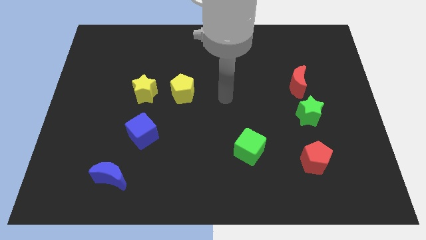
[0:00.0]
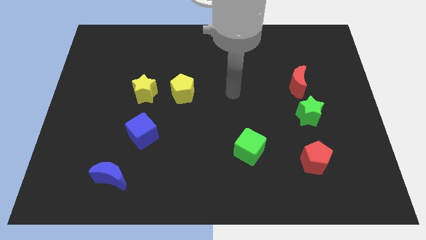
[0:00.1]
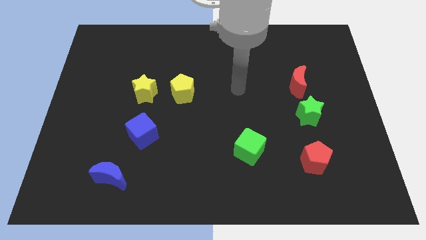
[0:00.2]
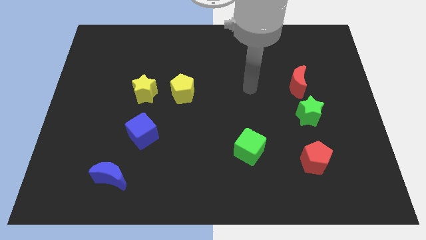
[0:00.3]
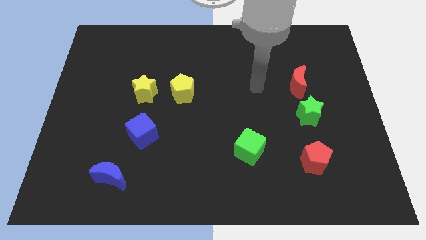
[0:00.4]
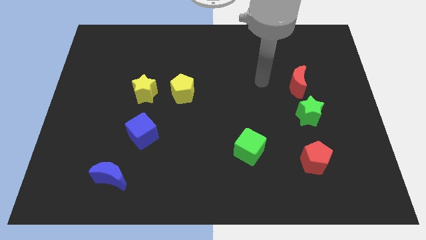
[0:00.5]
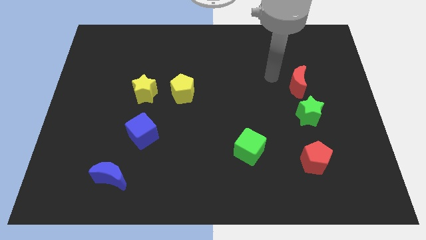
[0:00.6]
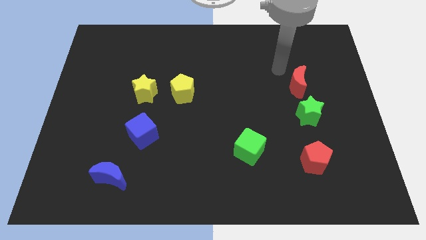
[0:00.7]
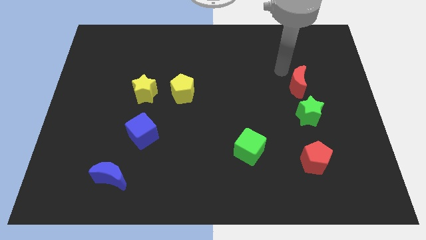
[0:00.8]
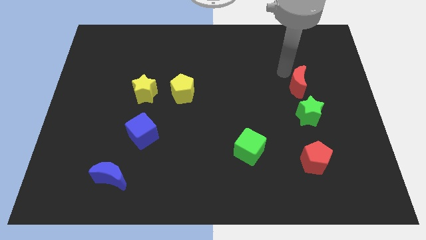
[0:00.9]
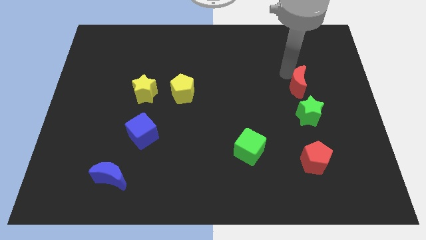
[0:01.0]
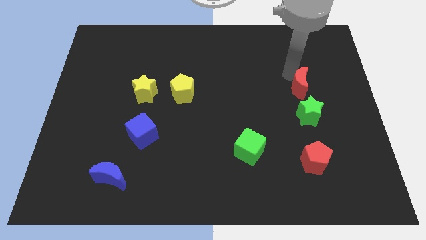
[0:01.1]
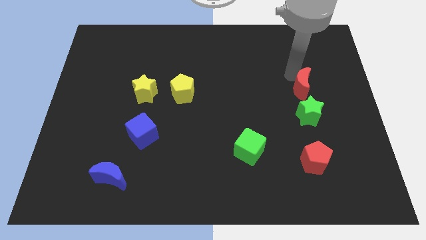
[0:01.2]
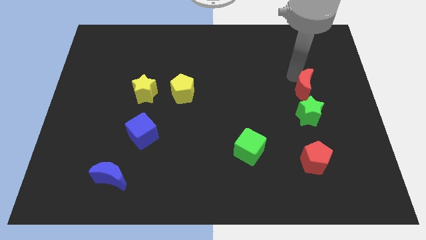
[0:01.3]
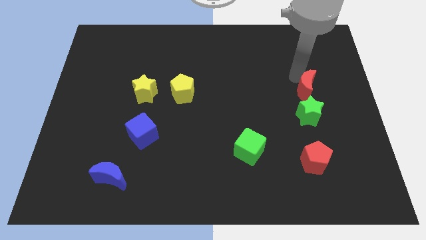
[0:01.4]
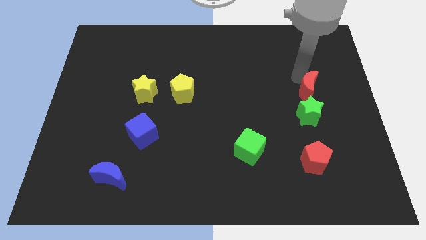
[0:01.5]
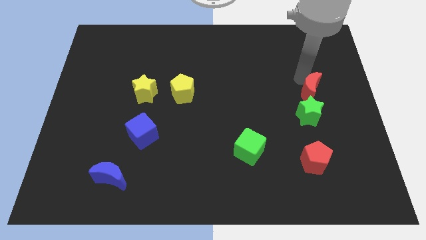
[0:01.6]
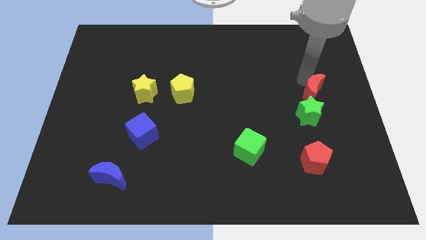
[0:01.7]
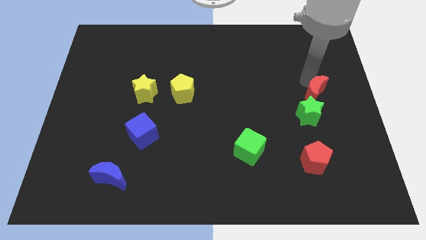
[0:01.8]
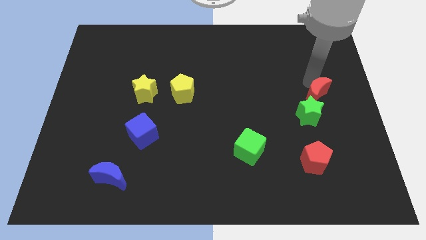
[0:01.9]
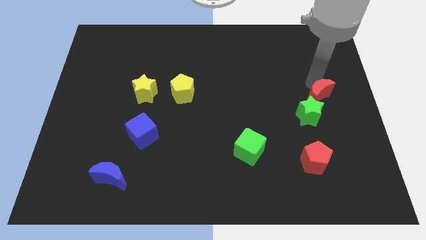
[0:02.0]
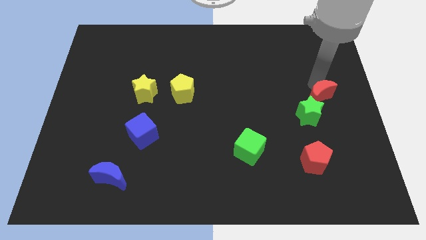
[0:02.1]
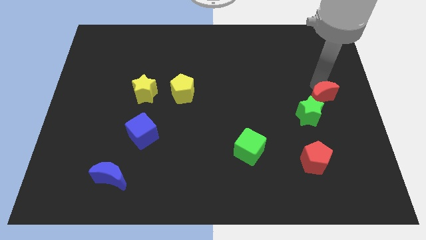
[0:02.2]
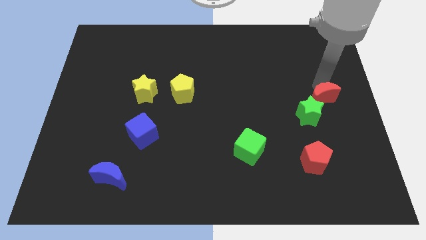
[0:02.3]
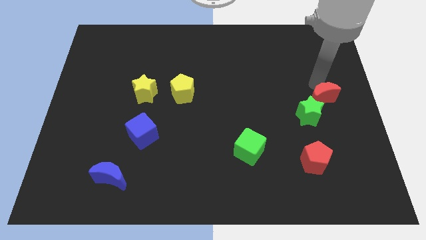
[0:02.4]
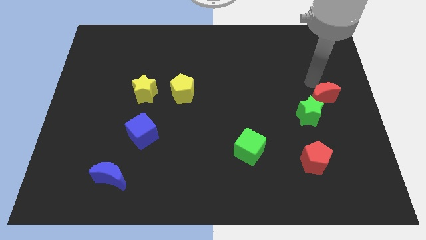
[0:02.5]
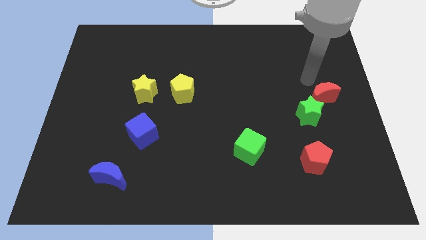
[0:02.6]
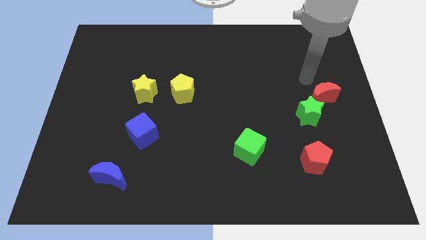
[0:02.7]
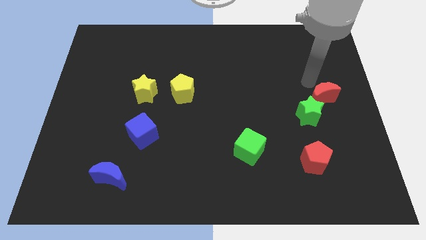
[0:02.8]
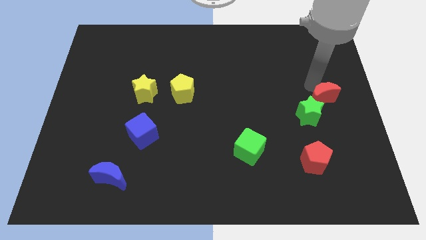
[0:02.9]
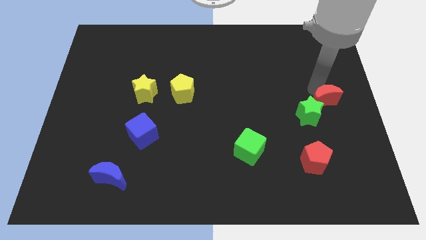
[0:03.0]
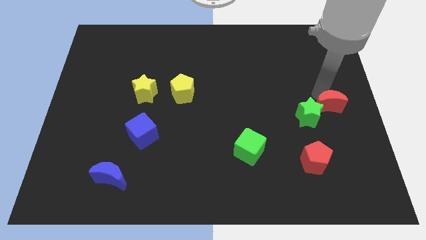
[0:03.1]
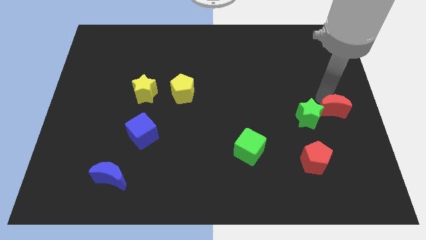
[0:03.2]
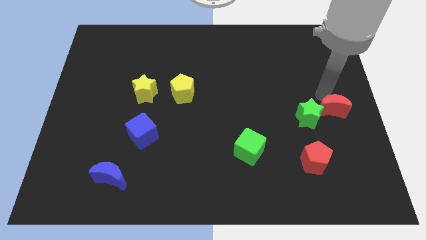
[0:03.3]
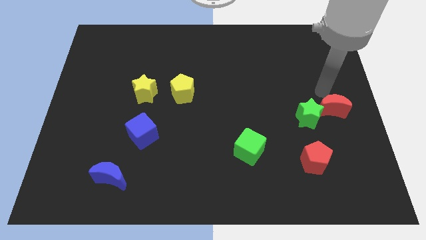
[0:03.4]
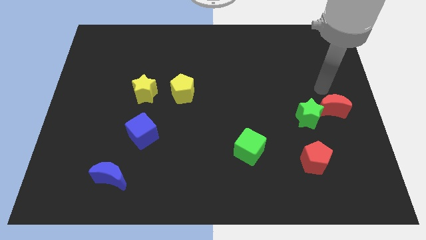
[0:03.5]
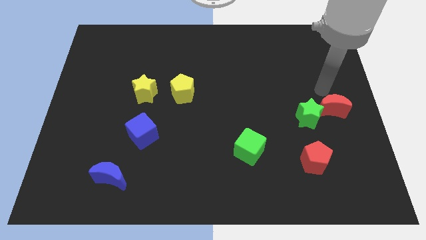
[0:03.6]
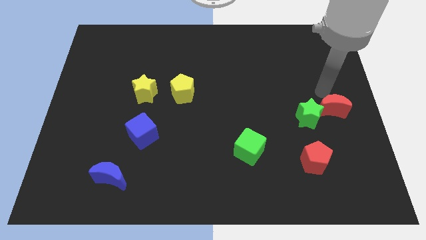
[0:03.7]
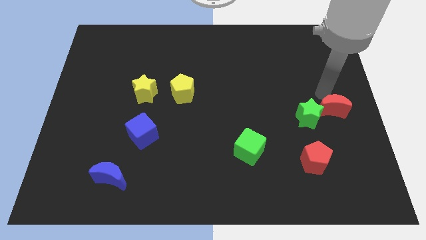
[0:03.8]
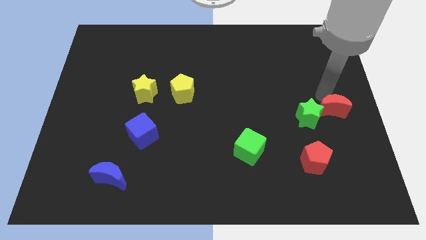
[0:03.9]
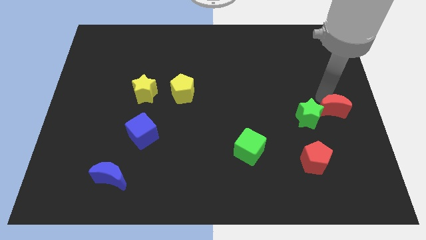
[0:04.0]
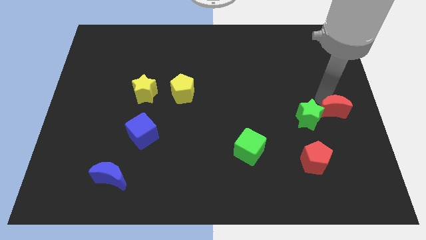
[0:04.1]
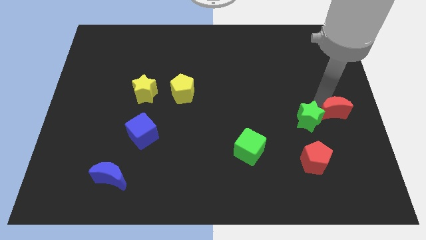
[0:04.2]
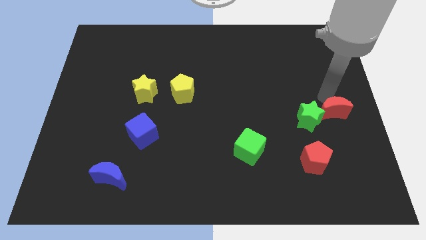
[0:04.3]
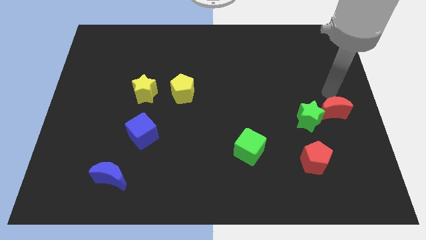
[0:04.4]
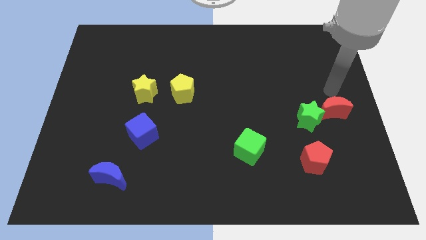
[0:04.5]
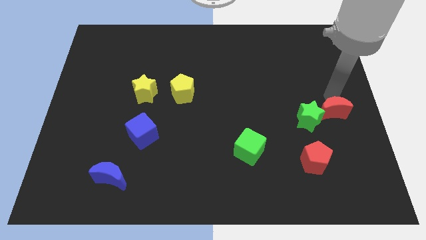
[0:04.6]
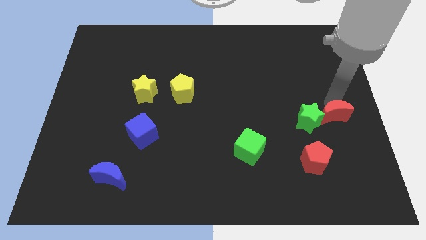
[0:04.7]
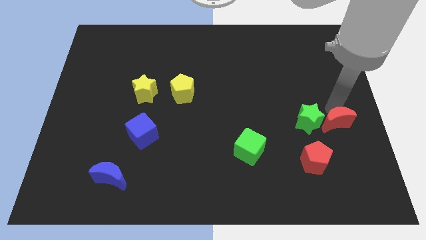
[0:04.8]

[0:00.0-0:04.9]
slide the red moon to the top right side of the red pentagon

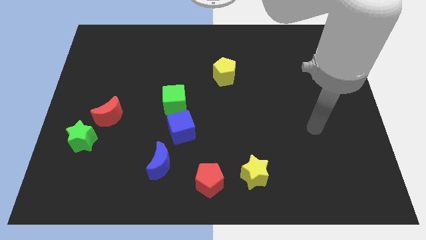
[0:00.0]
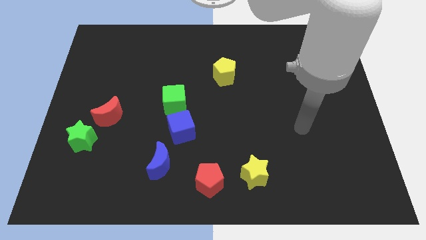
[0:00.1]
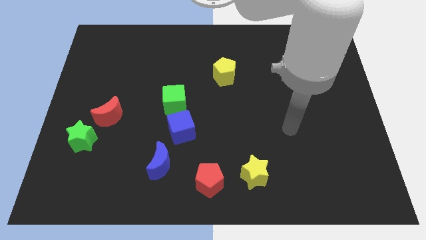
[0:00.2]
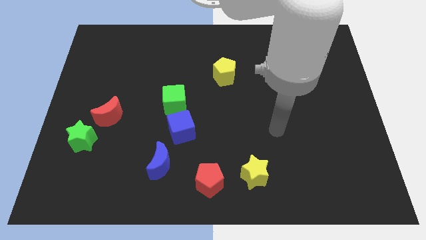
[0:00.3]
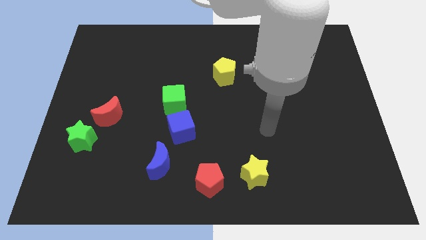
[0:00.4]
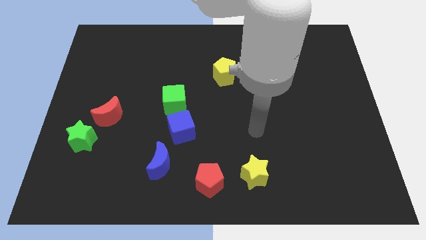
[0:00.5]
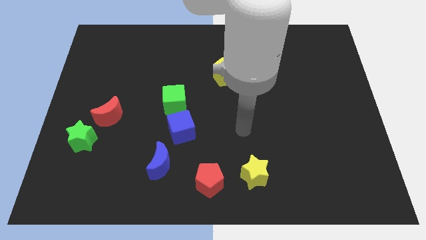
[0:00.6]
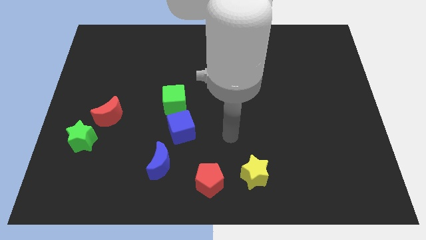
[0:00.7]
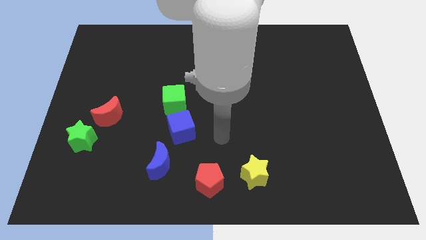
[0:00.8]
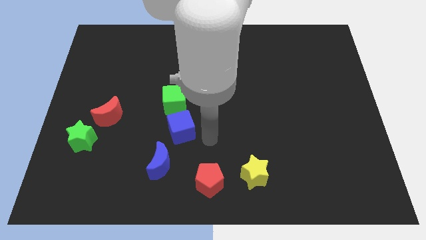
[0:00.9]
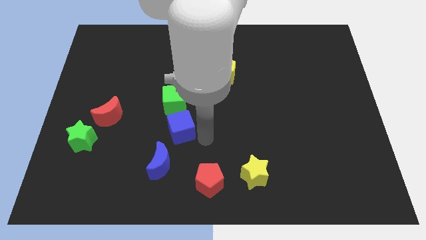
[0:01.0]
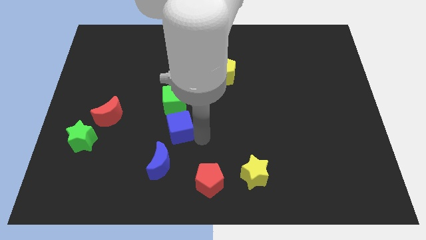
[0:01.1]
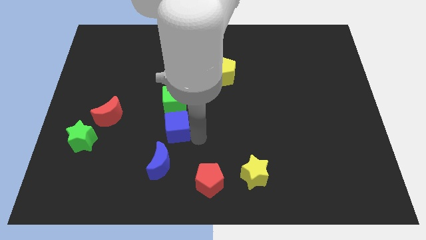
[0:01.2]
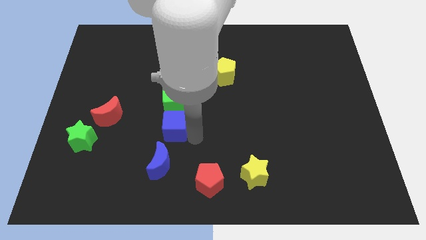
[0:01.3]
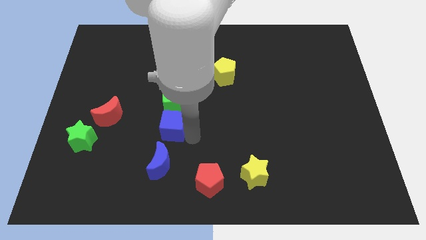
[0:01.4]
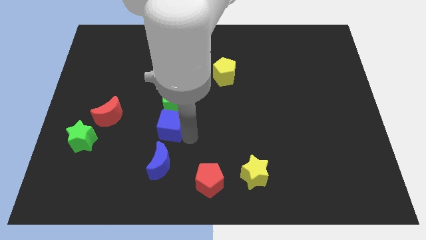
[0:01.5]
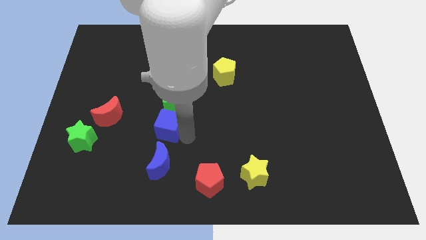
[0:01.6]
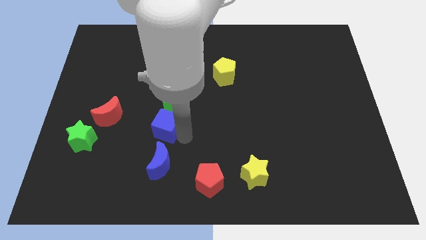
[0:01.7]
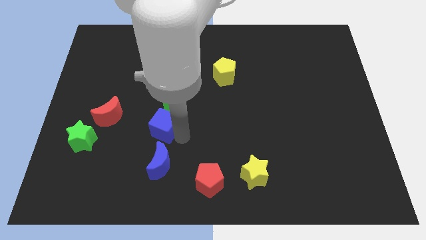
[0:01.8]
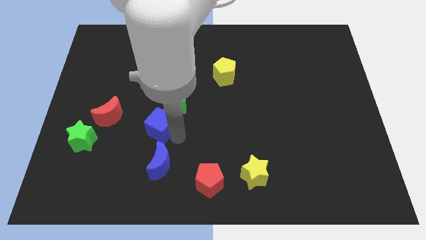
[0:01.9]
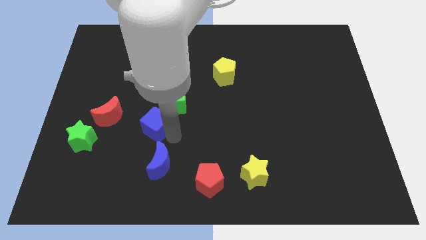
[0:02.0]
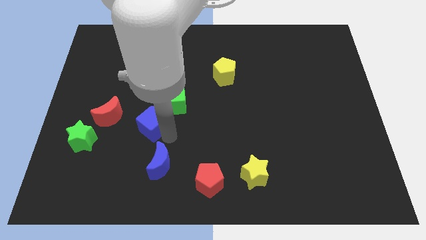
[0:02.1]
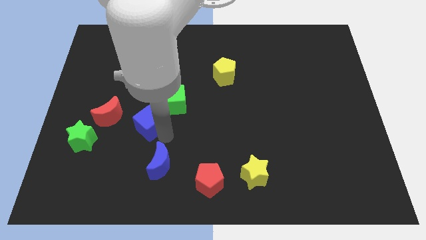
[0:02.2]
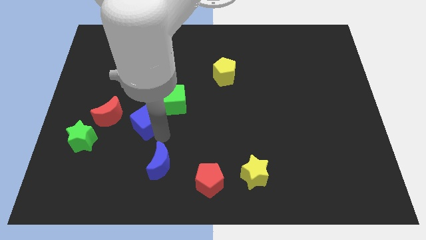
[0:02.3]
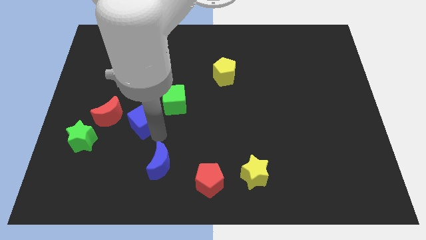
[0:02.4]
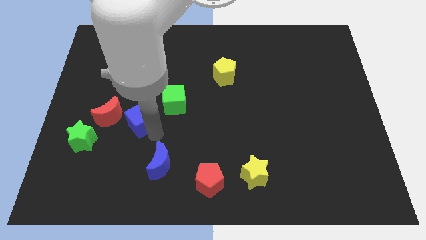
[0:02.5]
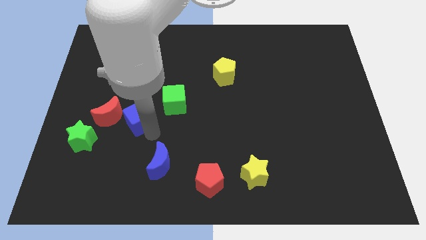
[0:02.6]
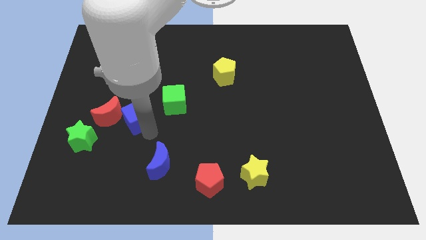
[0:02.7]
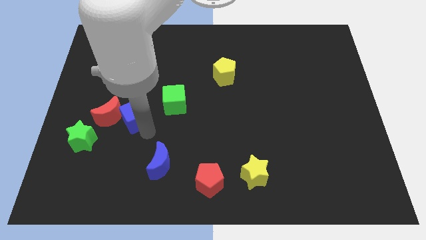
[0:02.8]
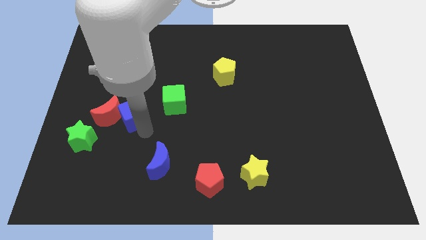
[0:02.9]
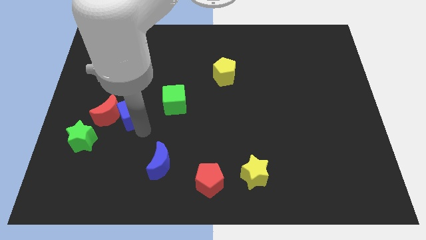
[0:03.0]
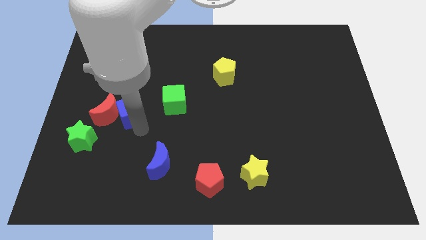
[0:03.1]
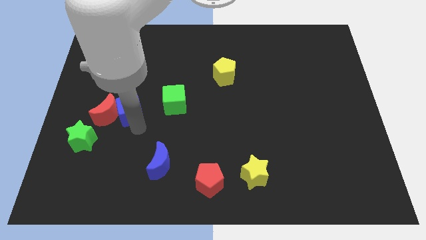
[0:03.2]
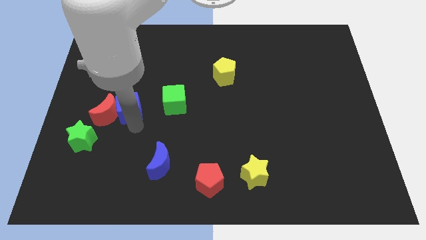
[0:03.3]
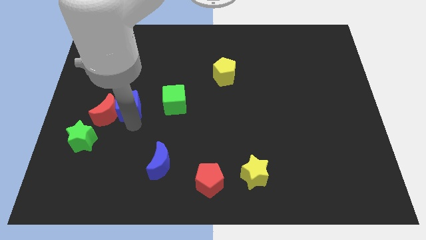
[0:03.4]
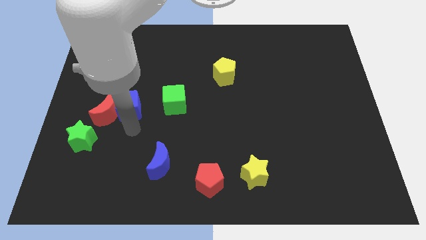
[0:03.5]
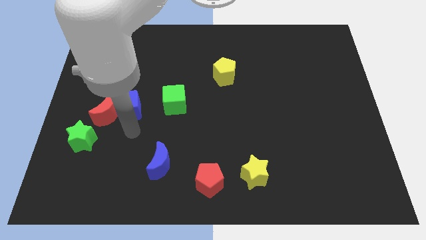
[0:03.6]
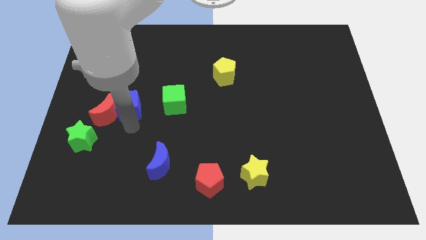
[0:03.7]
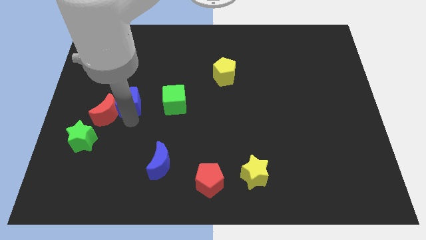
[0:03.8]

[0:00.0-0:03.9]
slide the blue cube above the red moon
